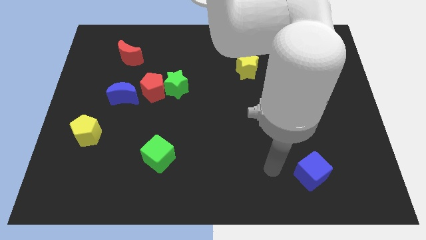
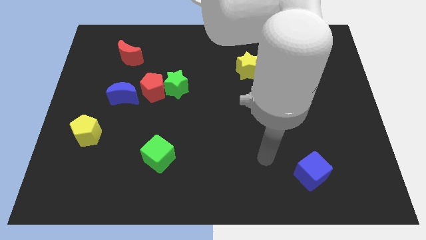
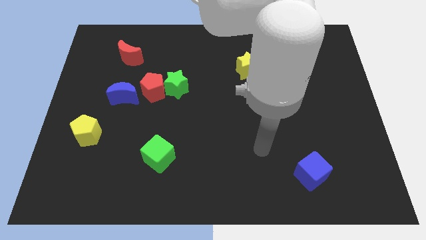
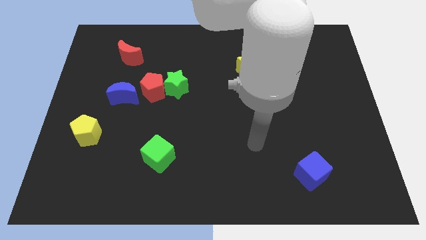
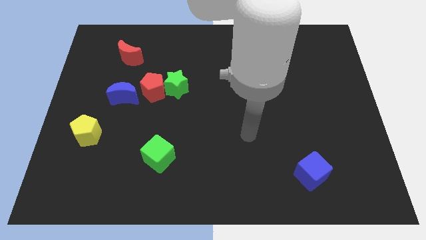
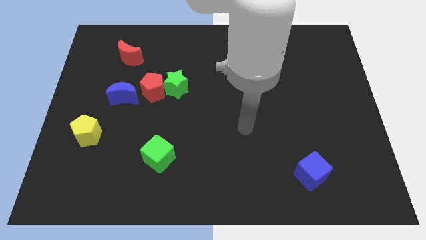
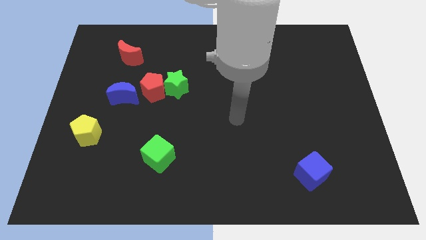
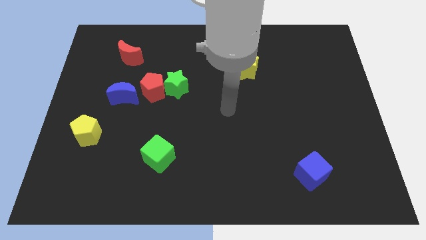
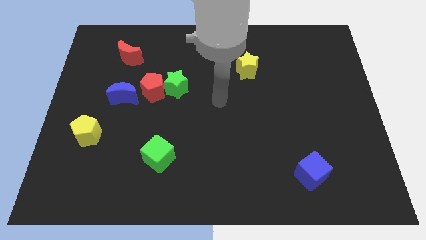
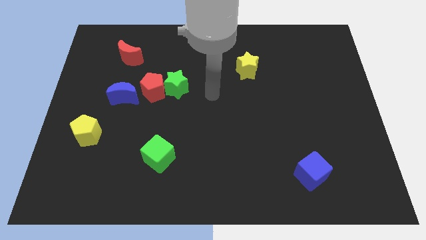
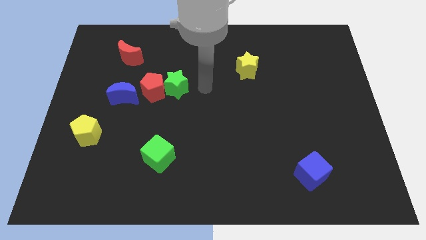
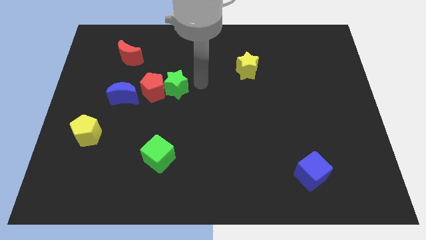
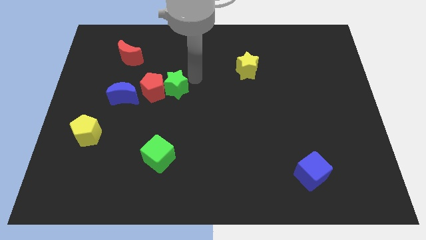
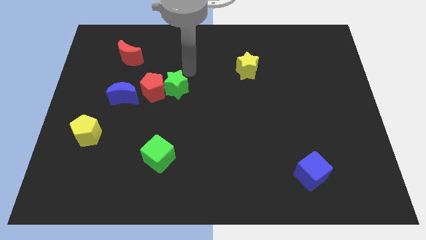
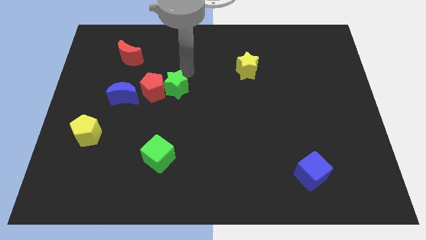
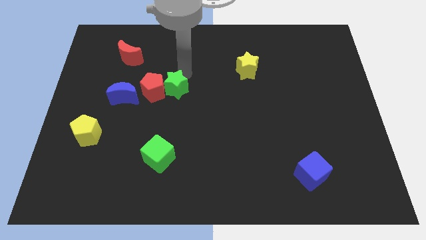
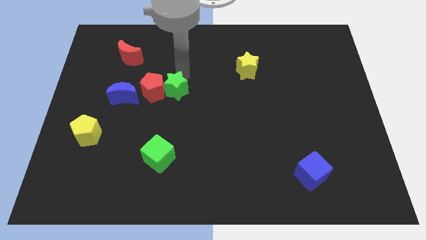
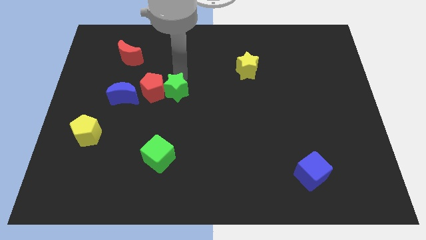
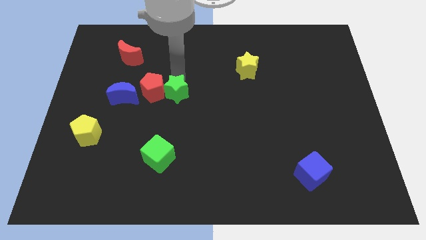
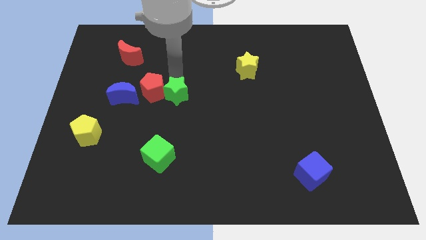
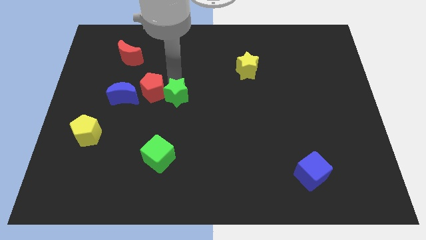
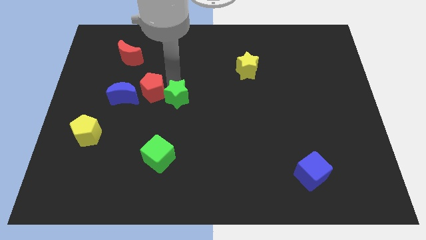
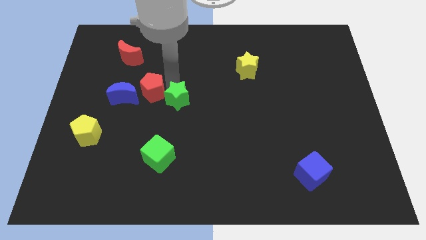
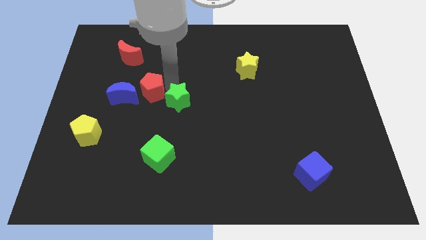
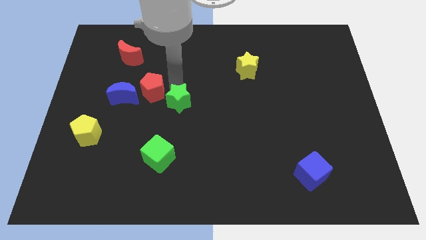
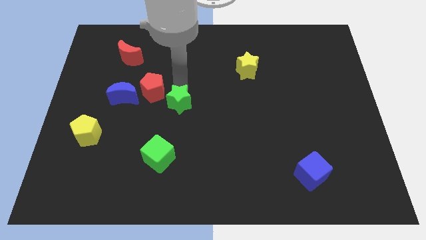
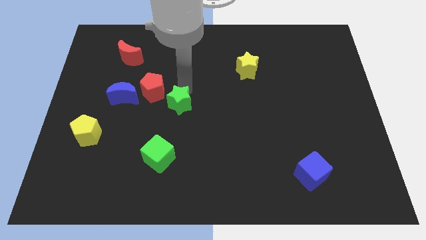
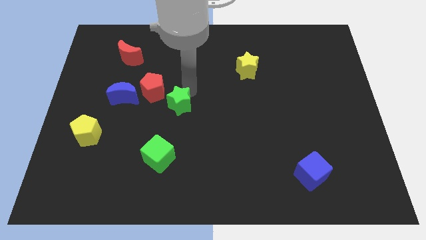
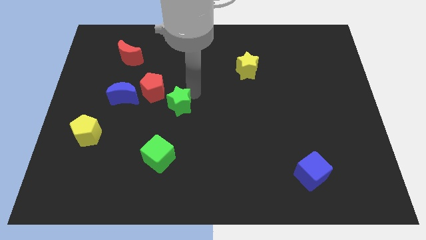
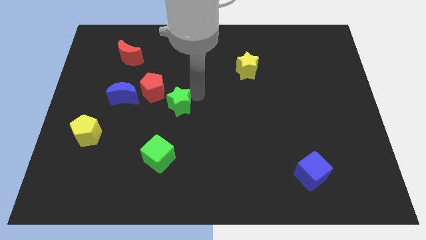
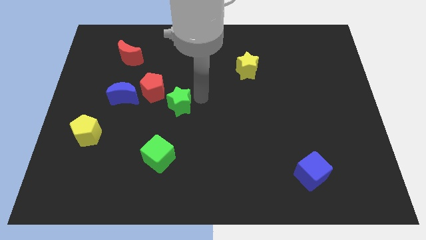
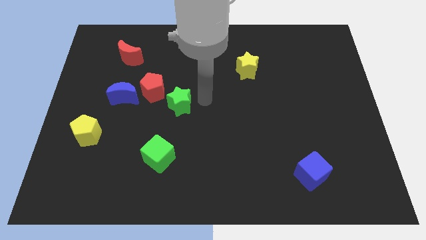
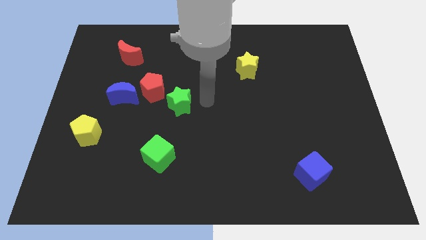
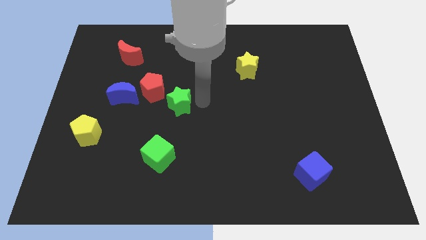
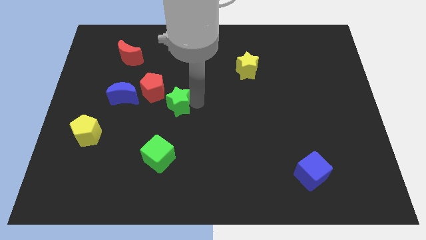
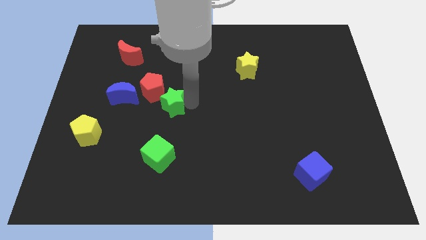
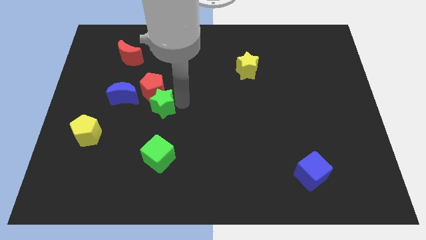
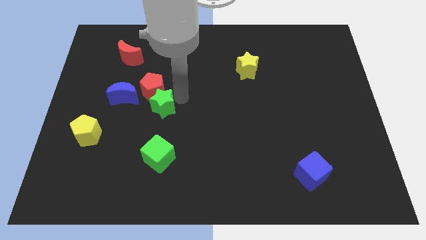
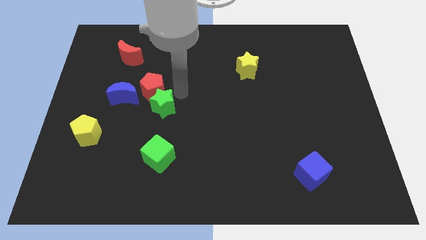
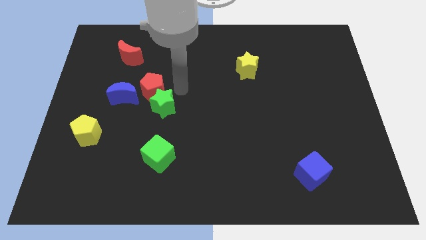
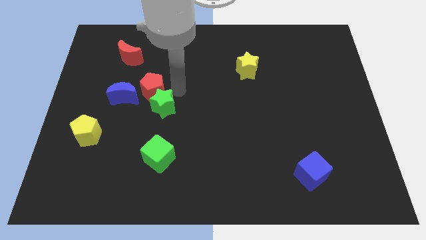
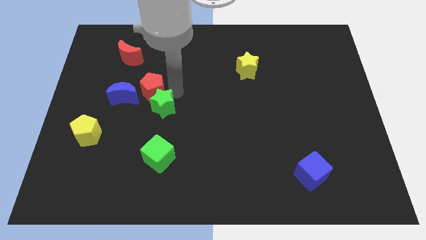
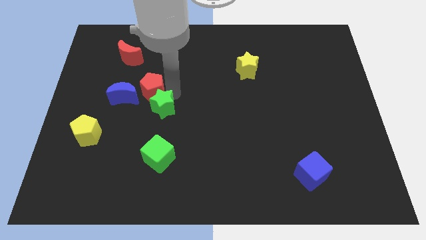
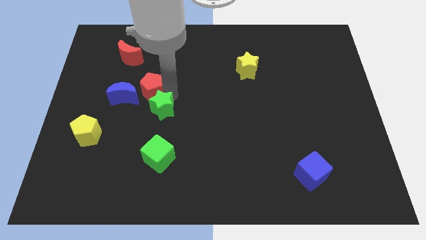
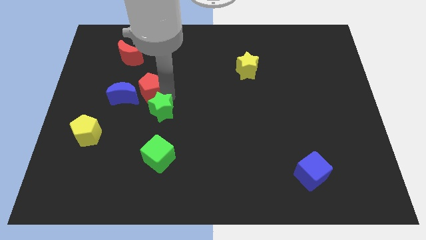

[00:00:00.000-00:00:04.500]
move the green star a bit diagonally downwards and to the left

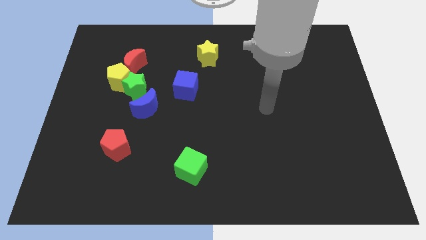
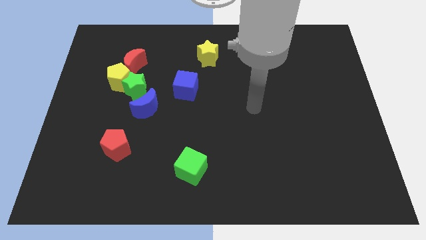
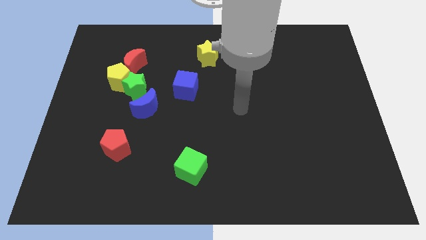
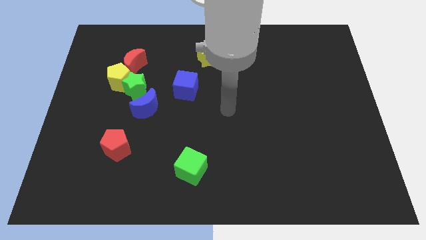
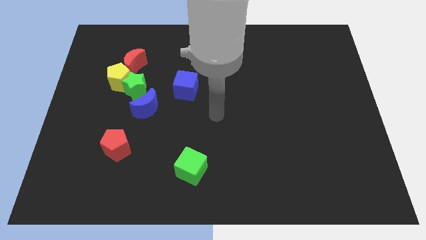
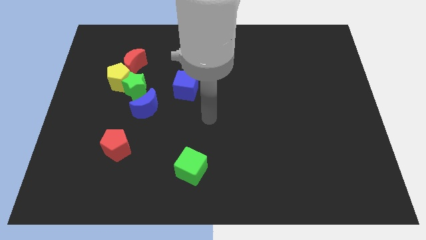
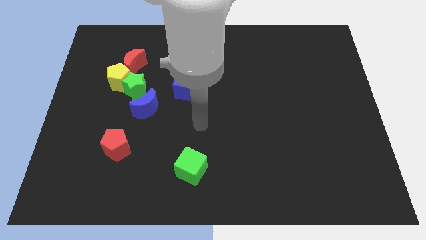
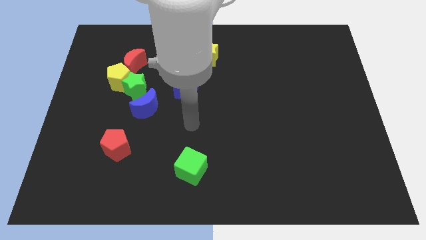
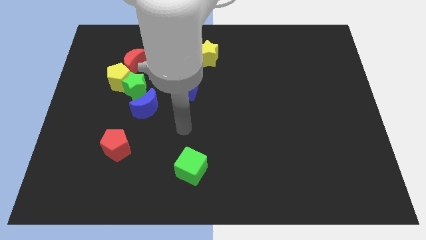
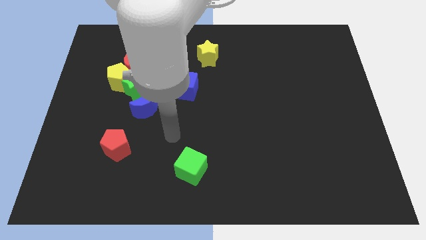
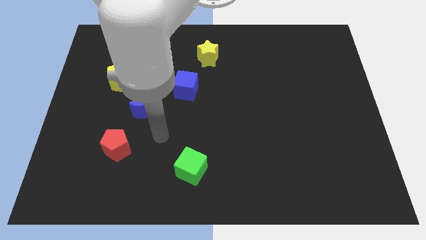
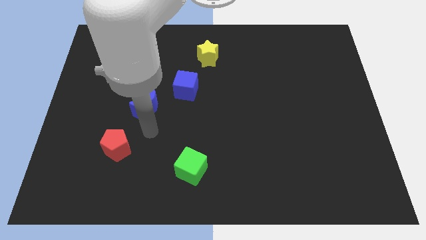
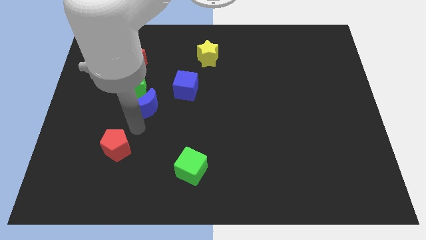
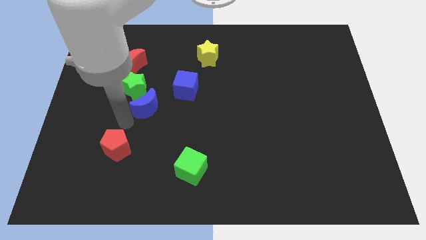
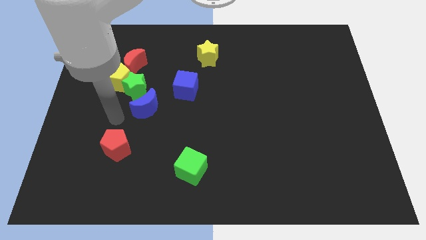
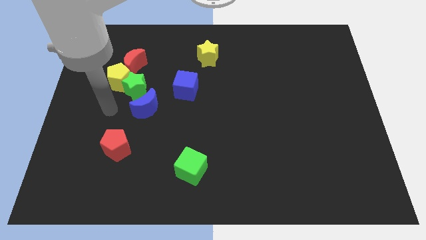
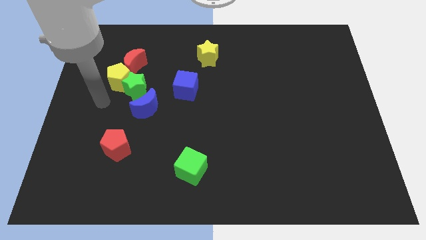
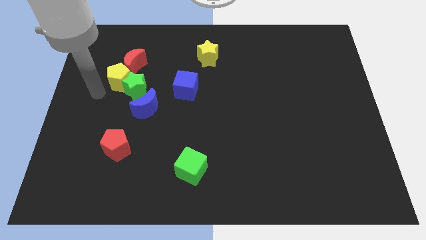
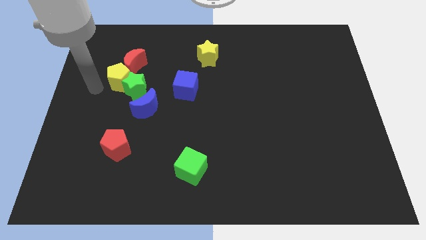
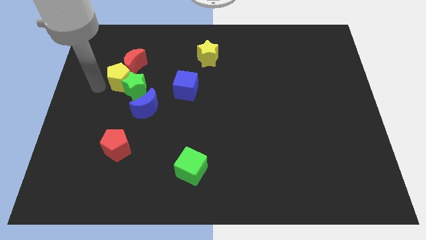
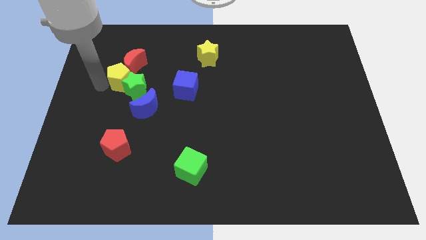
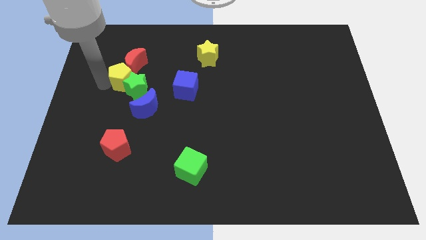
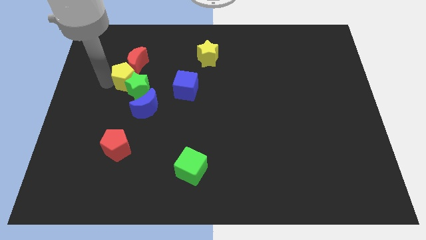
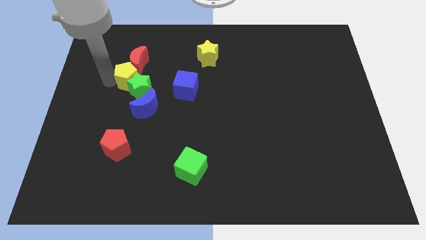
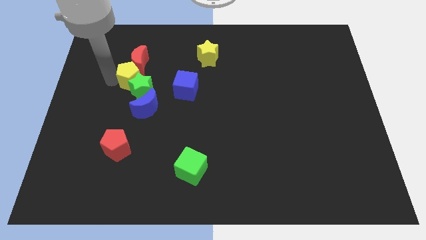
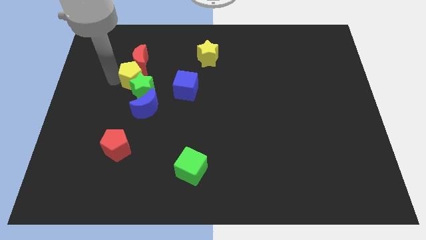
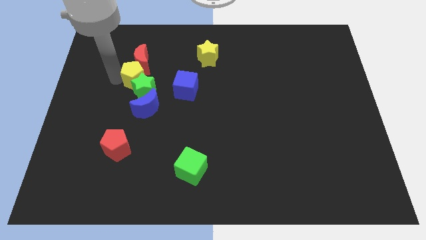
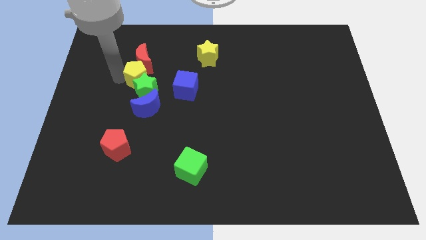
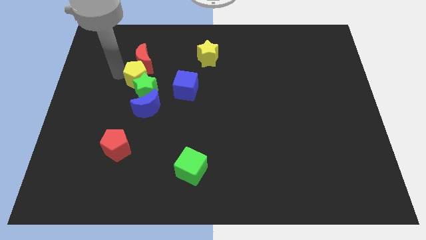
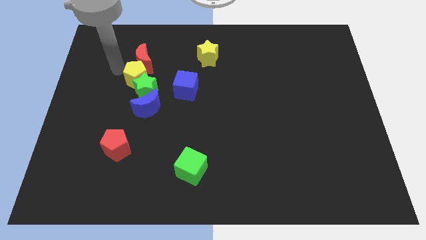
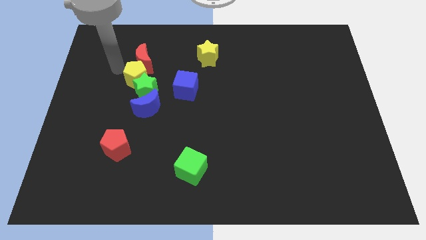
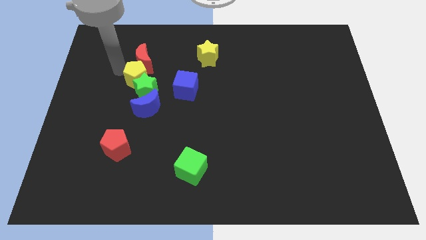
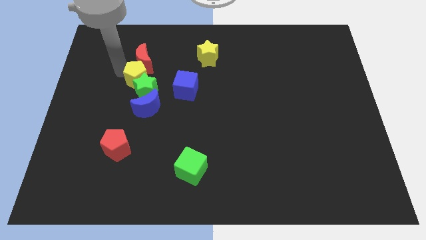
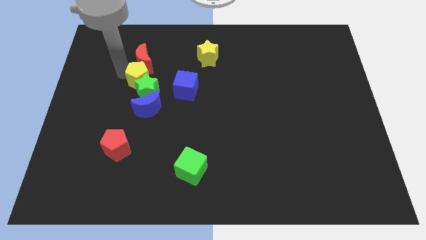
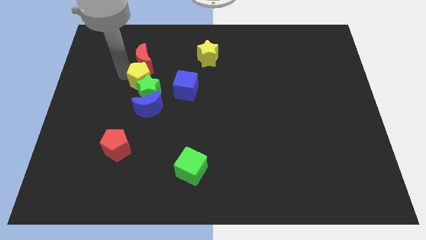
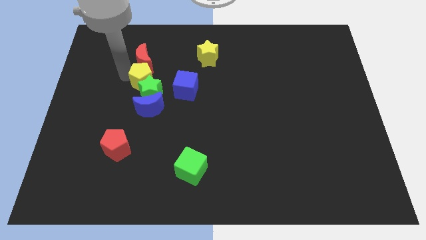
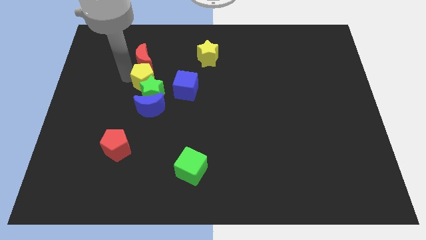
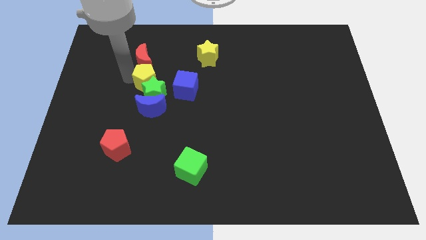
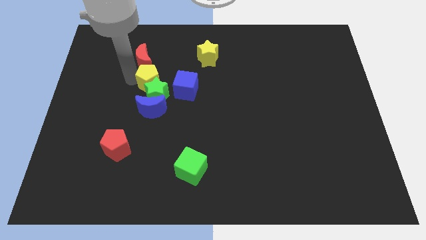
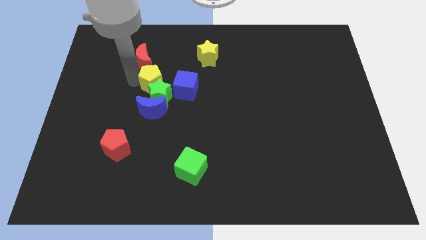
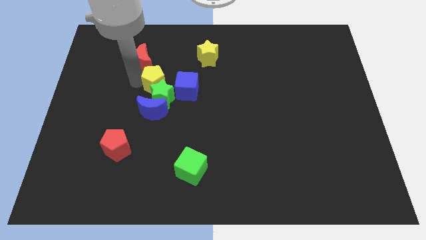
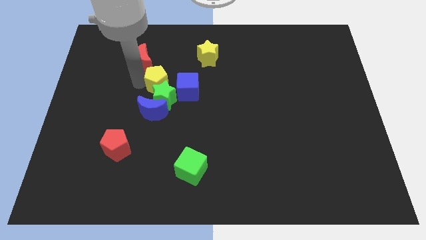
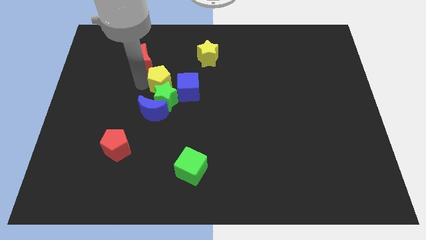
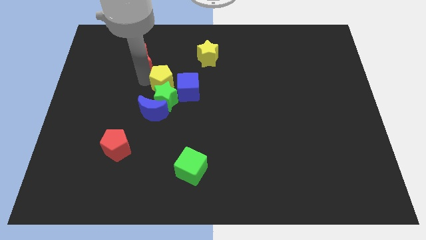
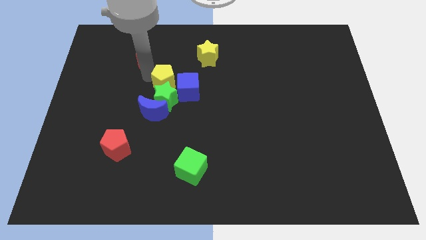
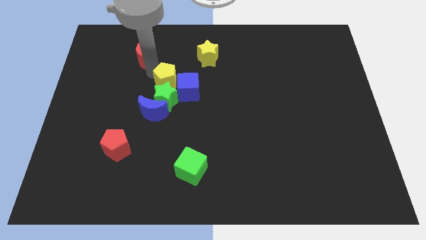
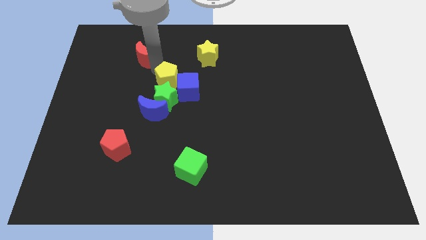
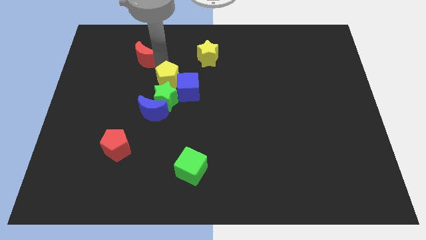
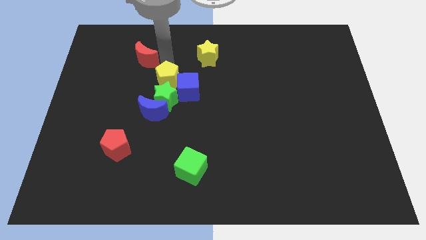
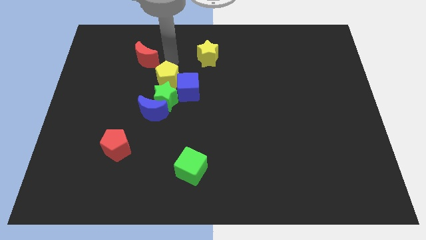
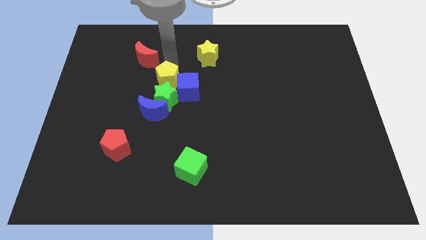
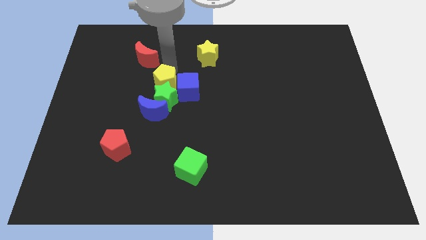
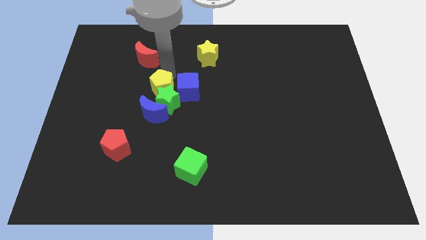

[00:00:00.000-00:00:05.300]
push the yellow pentagon somewhat downwards and to the right
